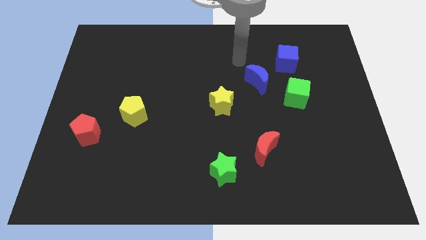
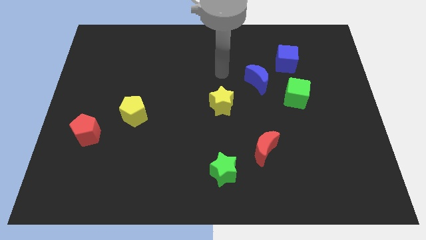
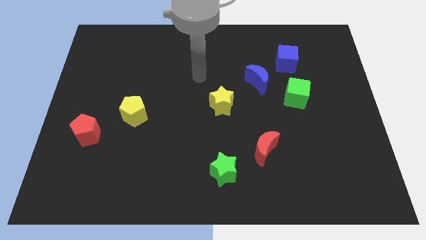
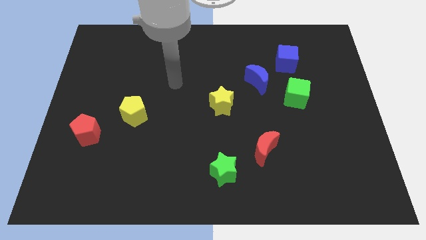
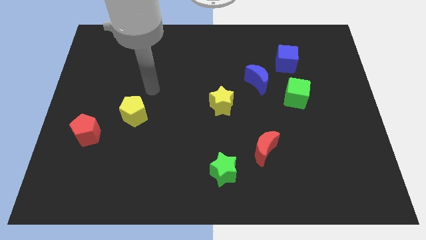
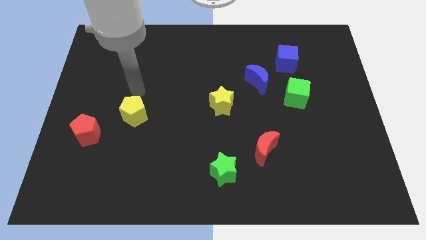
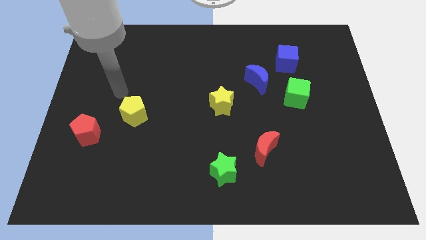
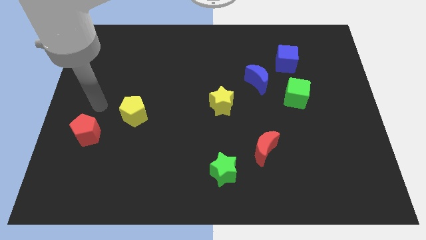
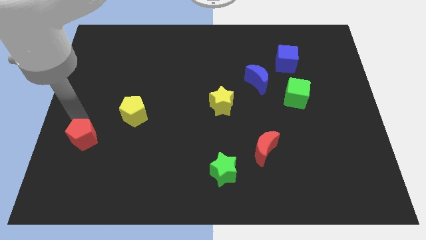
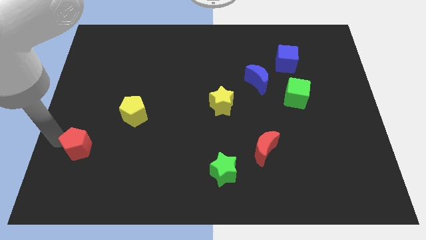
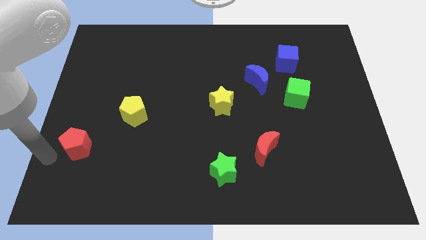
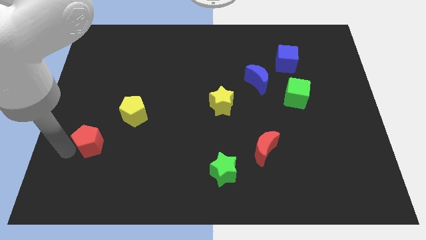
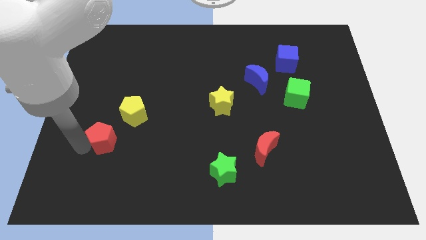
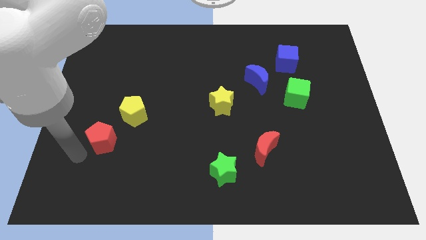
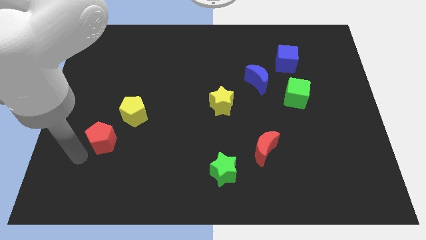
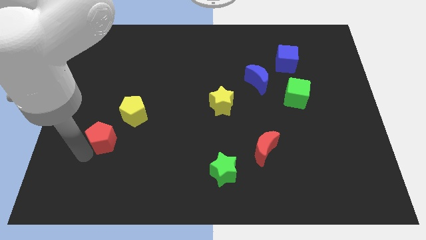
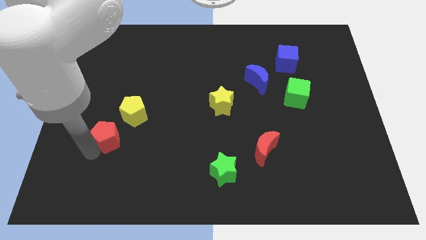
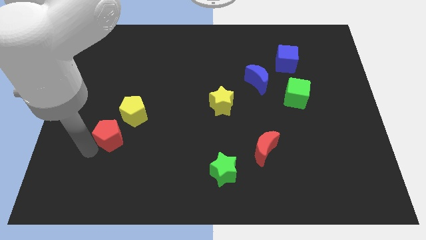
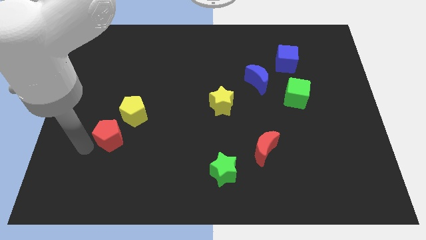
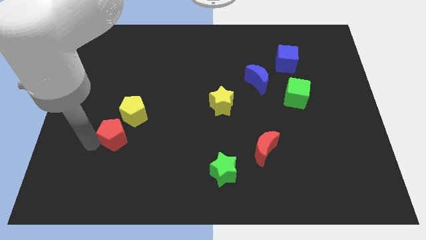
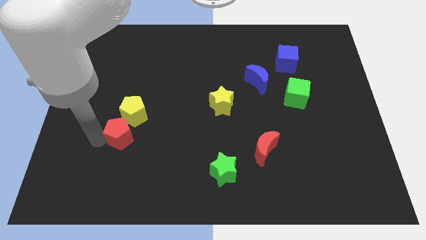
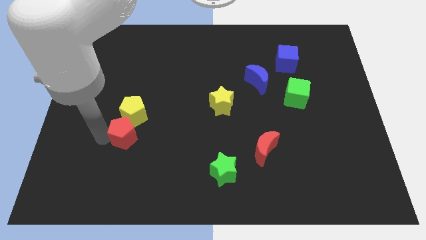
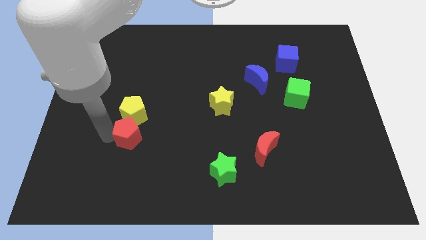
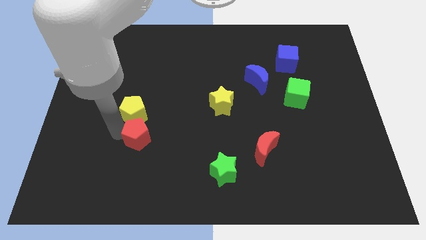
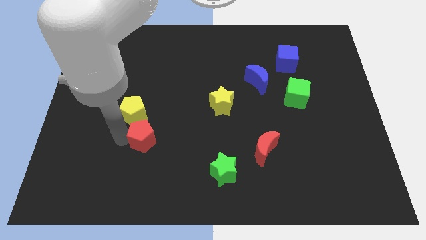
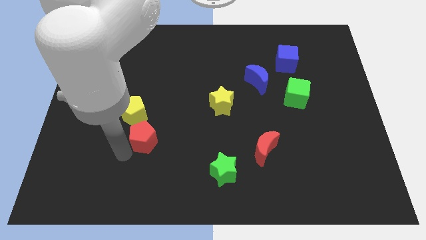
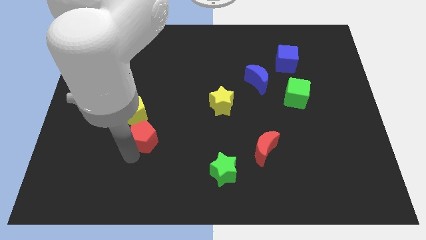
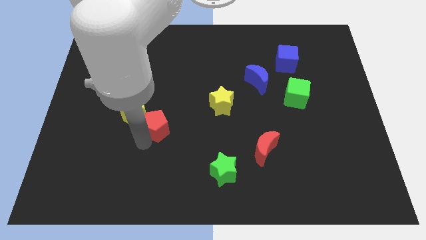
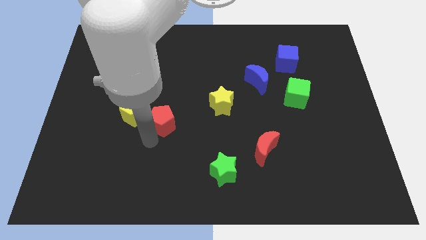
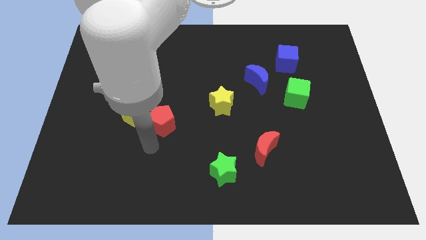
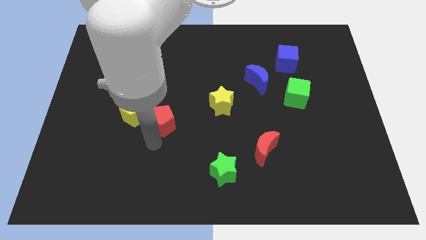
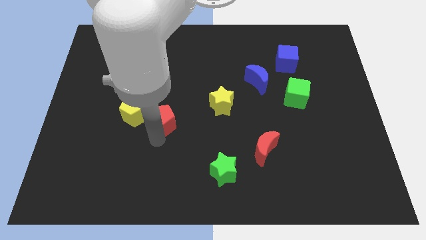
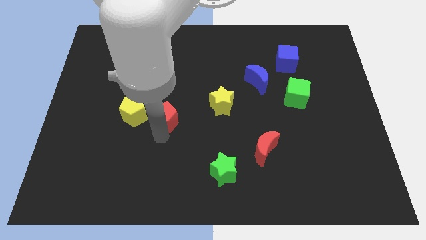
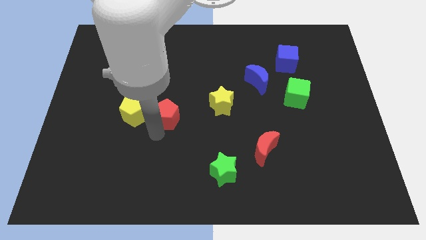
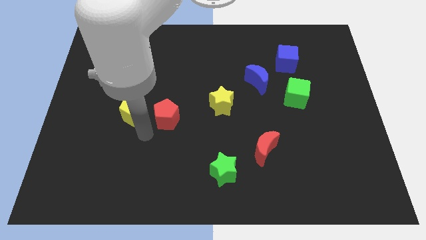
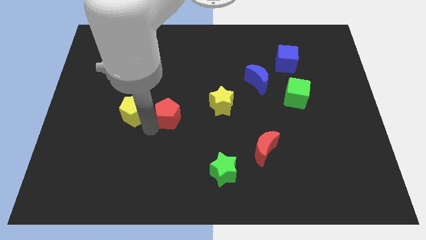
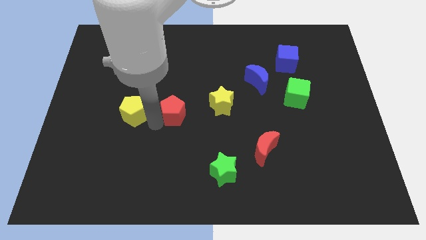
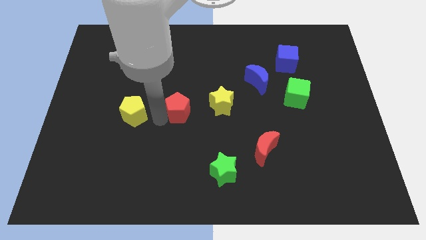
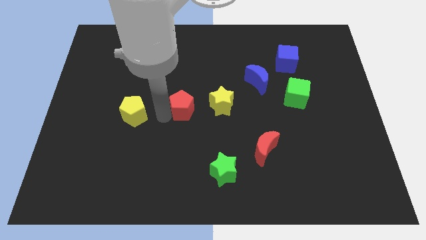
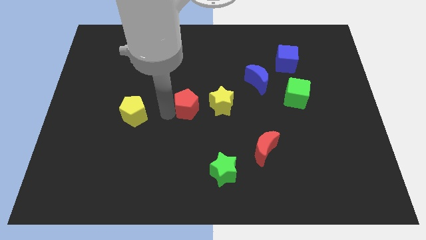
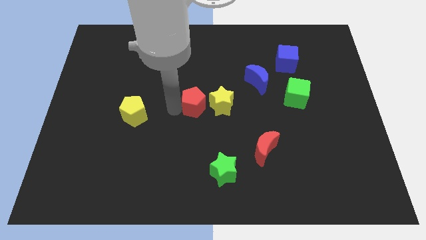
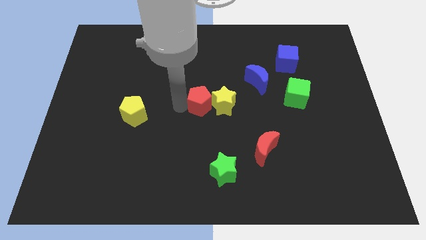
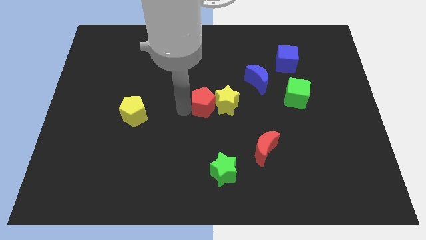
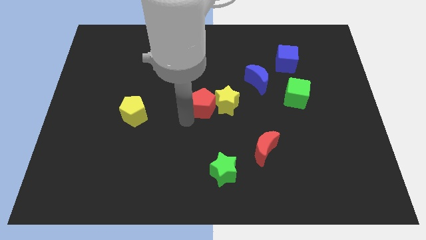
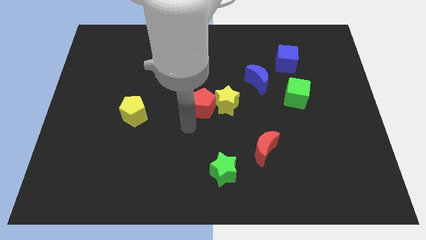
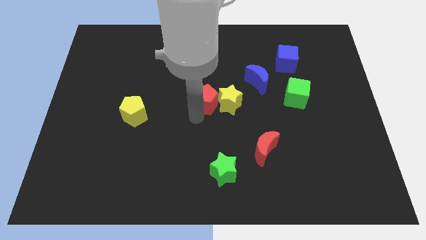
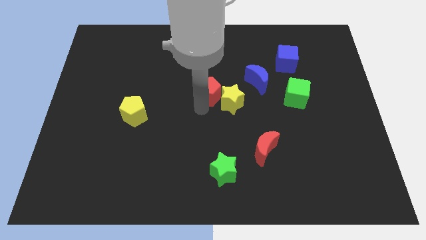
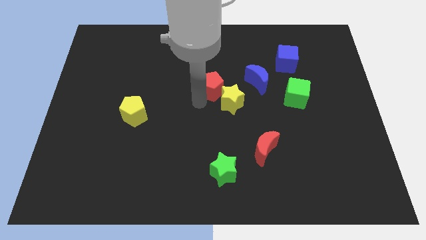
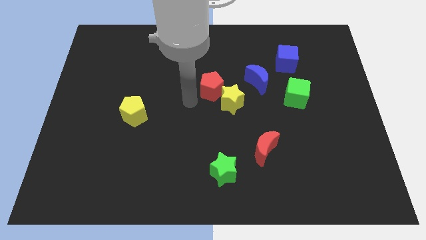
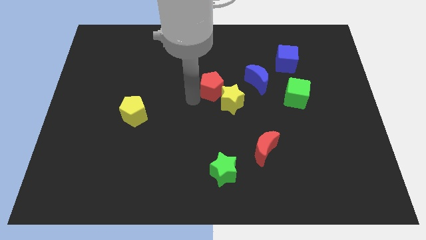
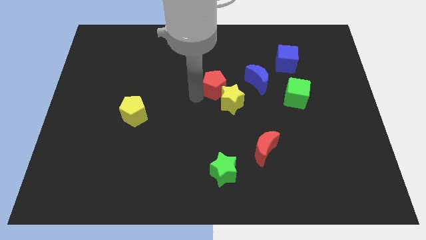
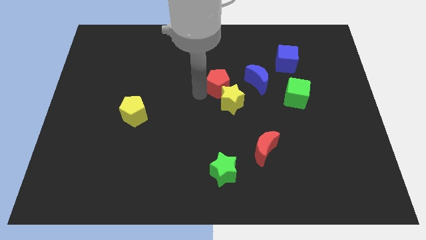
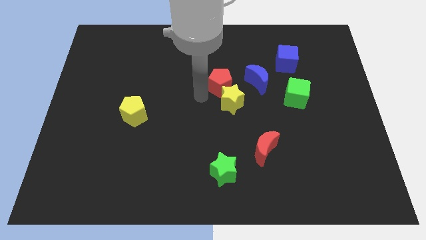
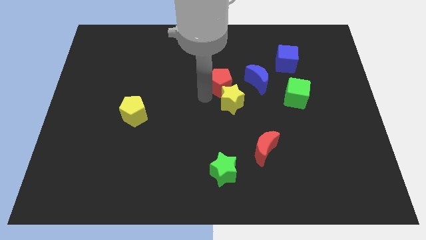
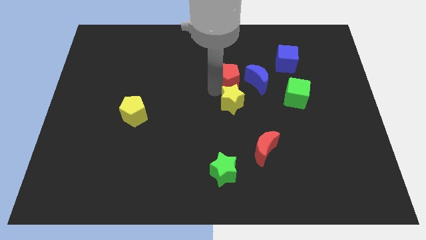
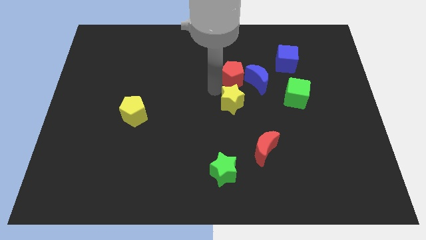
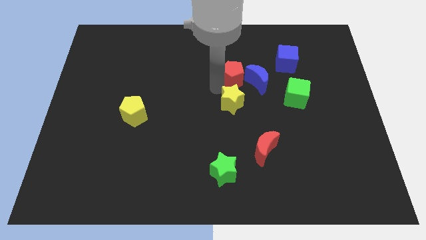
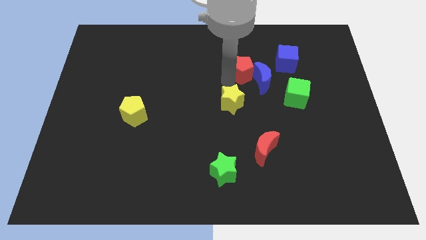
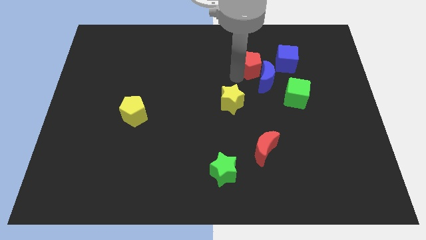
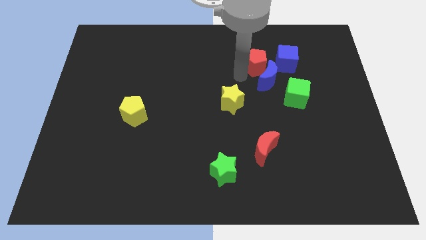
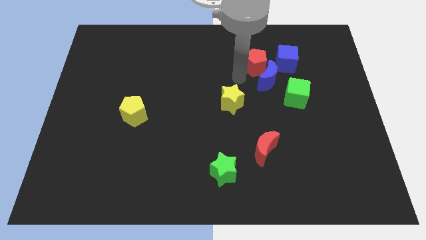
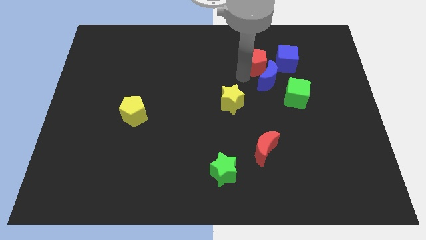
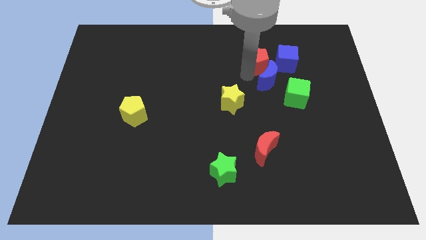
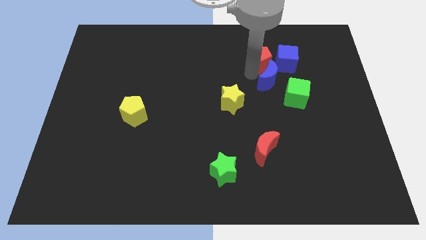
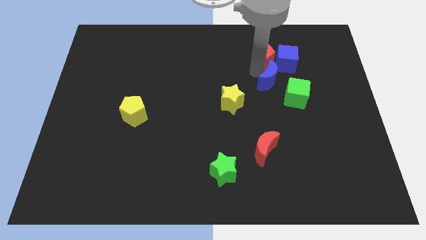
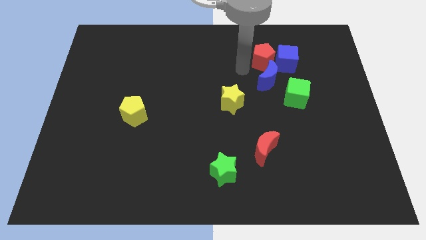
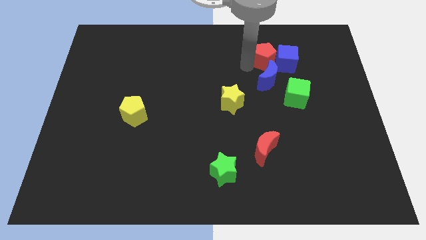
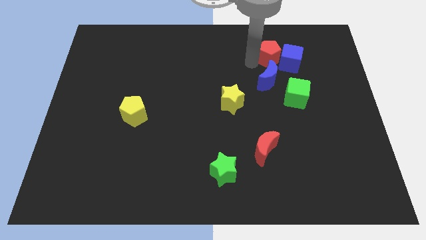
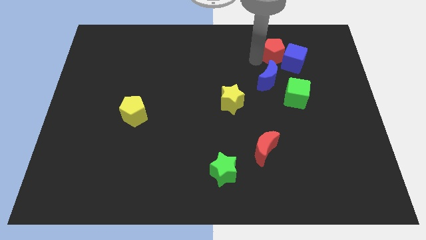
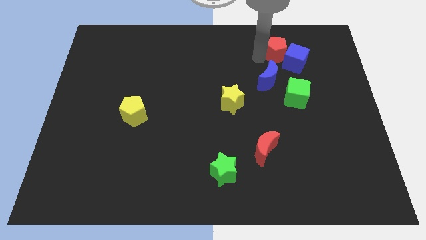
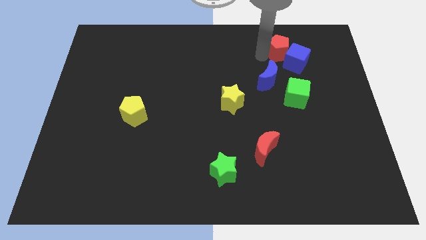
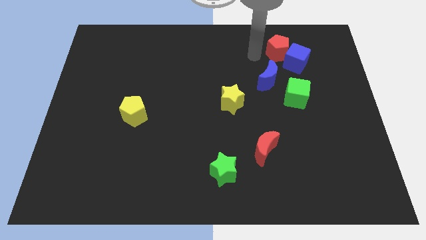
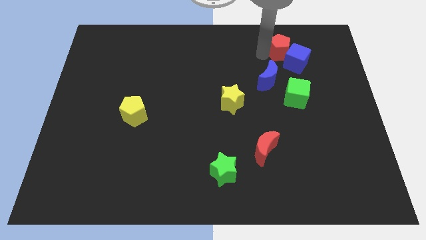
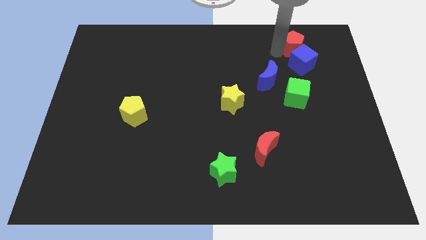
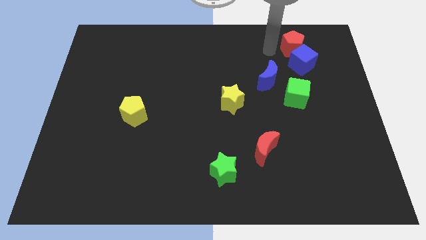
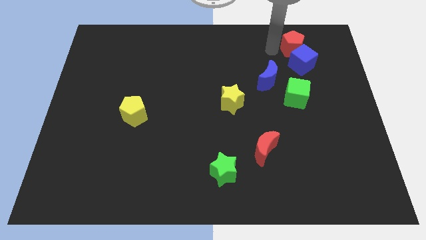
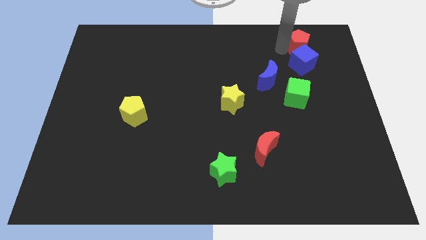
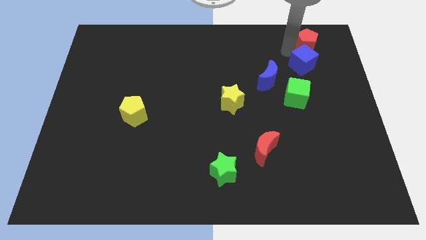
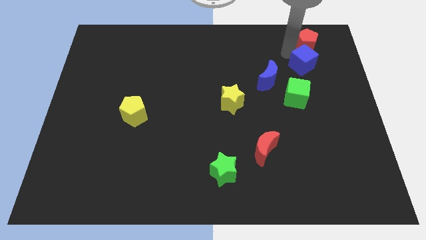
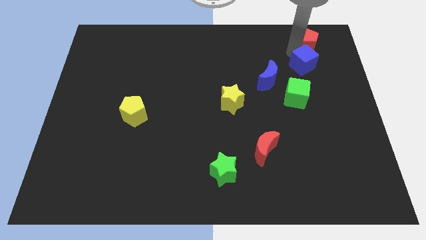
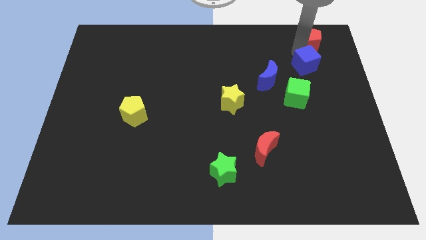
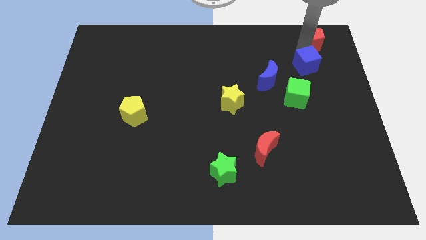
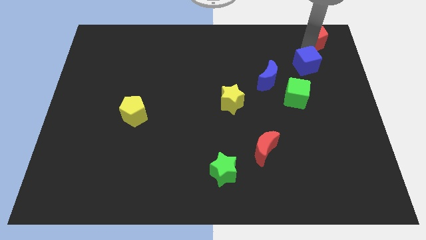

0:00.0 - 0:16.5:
push the red pentagon to the top right corner
